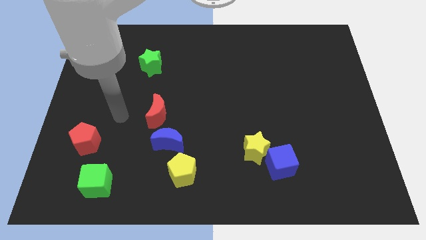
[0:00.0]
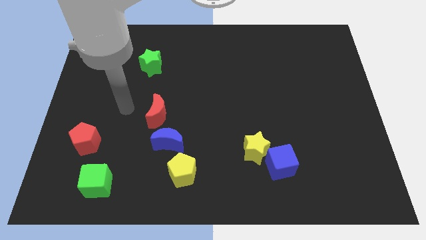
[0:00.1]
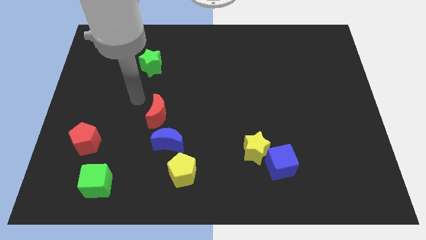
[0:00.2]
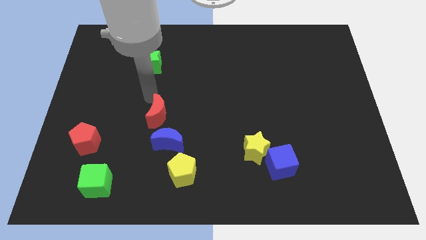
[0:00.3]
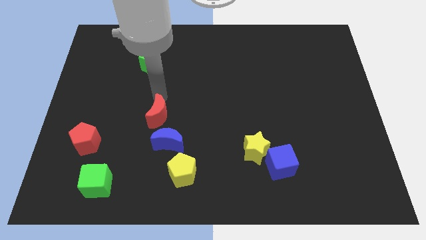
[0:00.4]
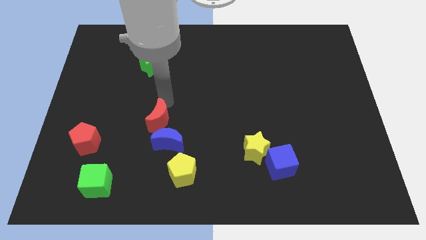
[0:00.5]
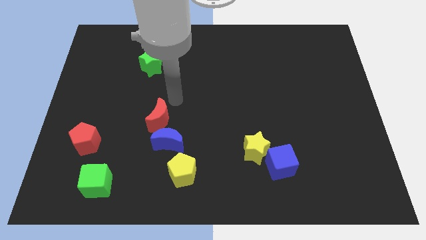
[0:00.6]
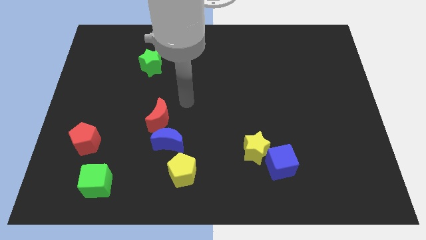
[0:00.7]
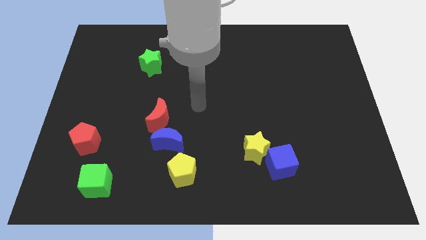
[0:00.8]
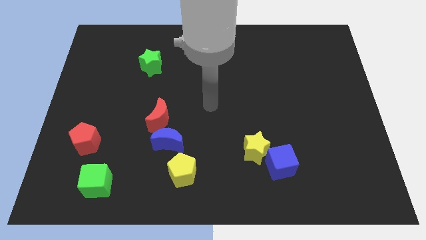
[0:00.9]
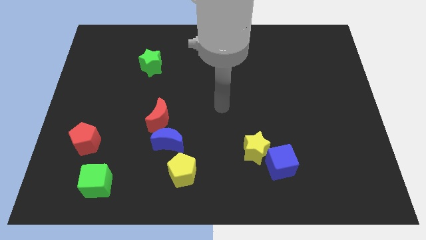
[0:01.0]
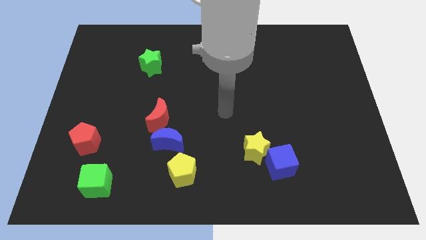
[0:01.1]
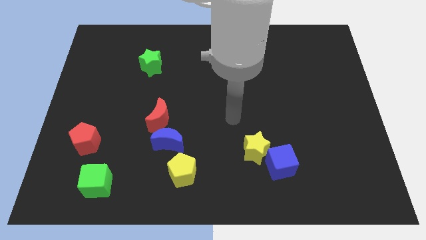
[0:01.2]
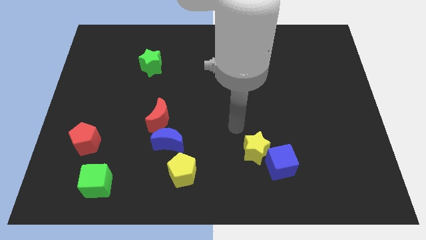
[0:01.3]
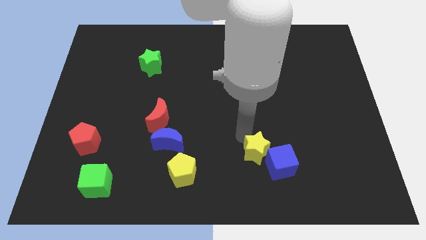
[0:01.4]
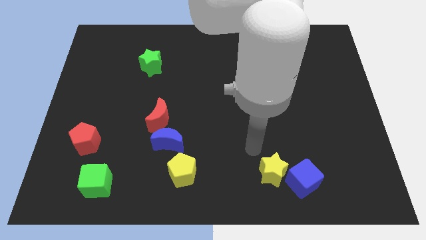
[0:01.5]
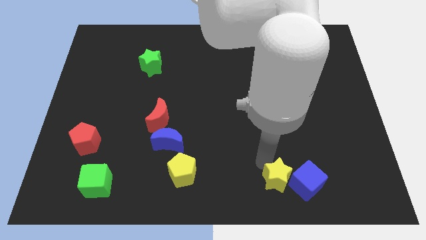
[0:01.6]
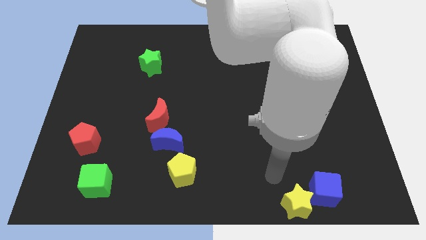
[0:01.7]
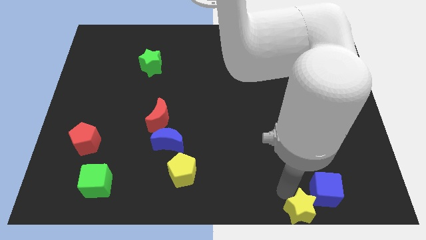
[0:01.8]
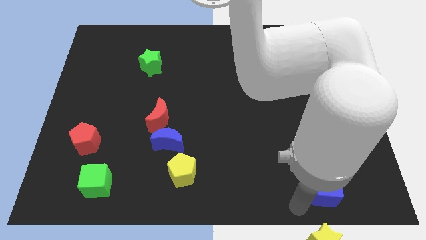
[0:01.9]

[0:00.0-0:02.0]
pull the blue cube apart from the yellow star

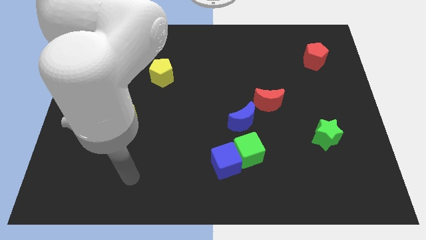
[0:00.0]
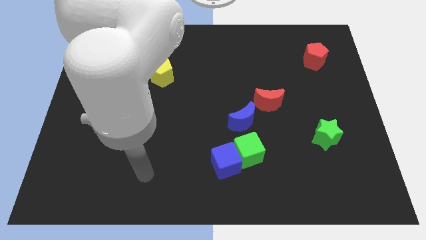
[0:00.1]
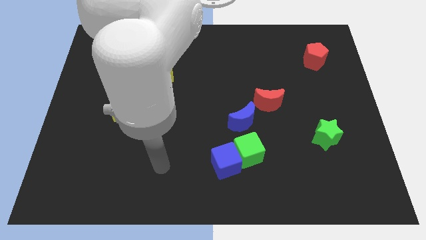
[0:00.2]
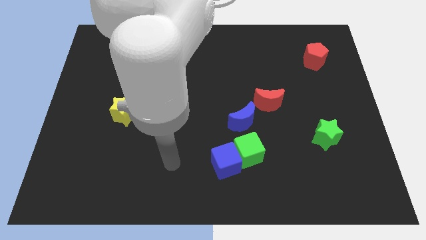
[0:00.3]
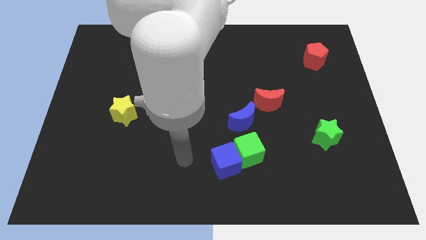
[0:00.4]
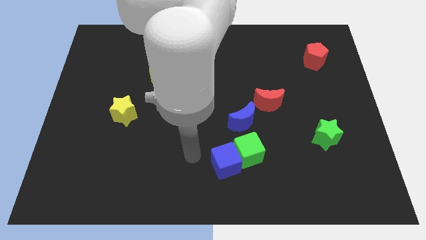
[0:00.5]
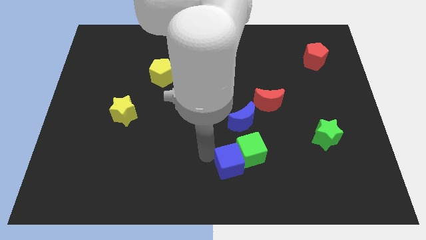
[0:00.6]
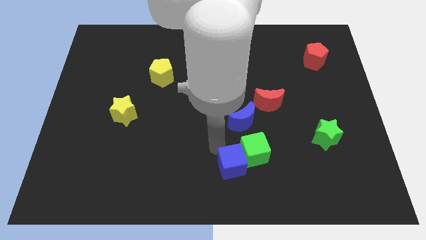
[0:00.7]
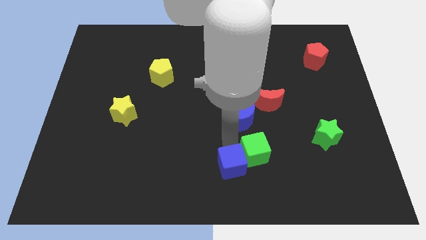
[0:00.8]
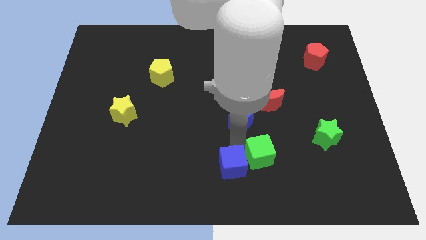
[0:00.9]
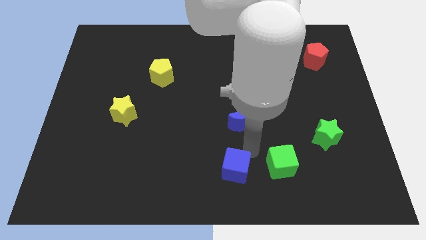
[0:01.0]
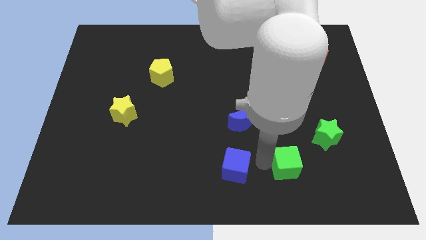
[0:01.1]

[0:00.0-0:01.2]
separate the blue cube from the green cube

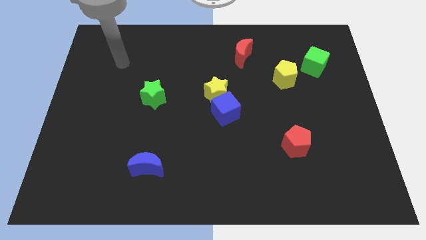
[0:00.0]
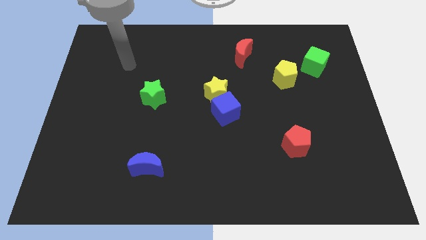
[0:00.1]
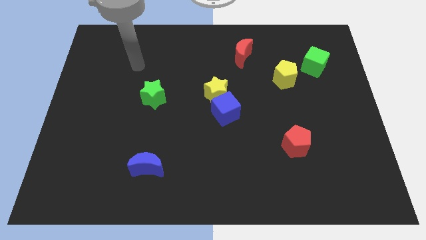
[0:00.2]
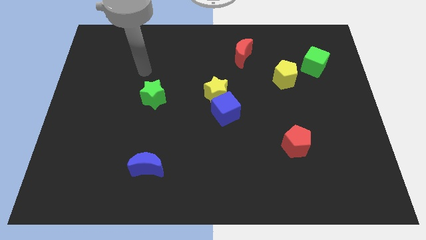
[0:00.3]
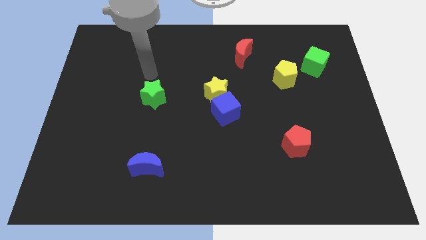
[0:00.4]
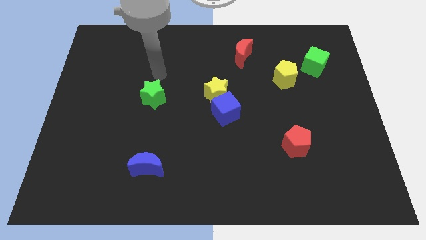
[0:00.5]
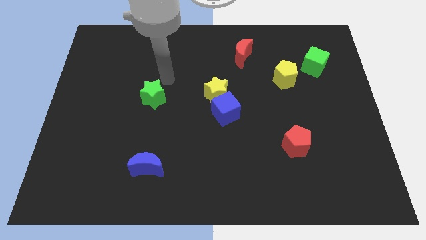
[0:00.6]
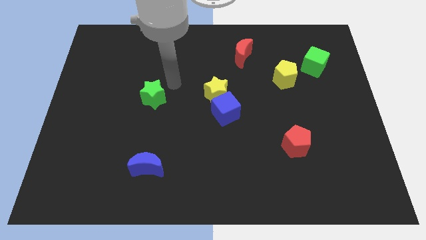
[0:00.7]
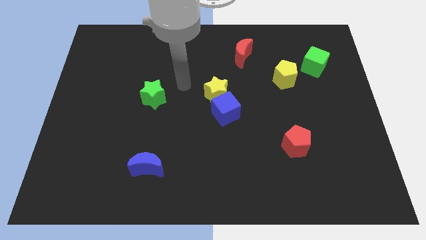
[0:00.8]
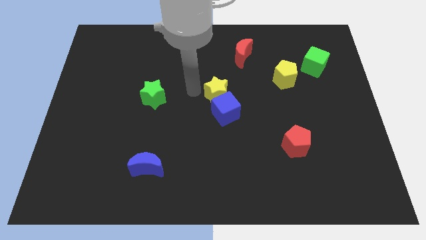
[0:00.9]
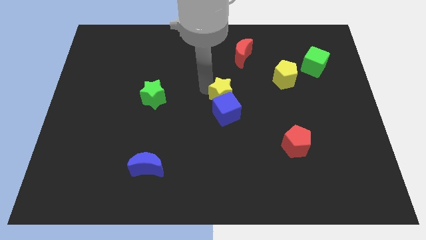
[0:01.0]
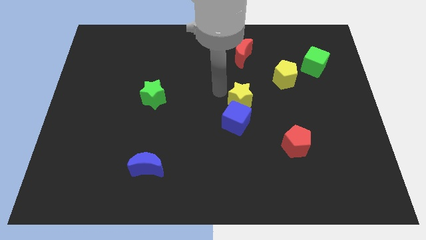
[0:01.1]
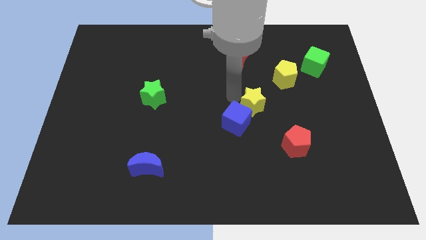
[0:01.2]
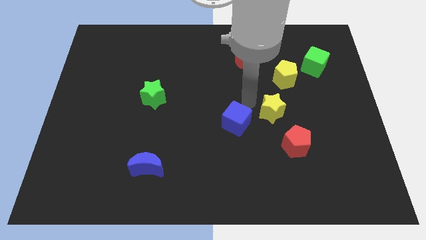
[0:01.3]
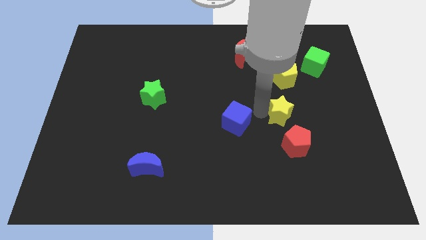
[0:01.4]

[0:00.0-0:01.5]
separate the blue cube from the yellow star

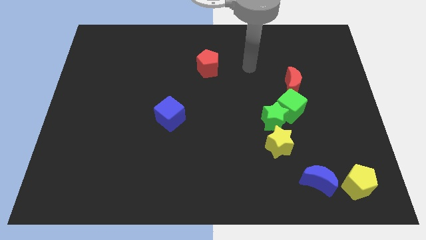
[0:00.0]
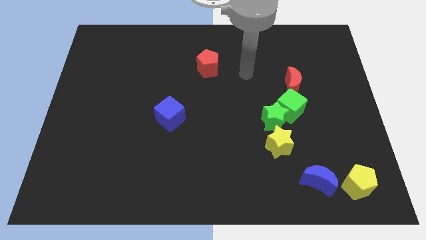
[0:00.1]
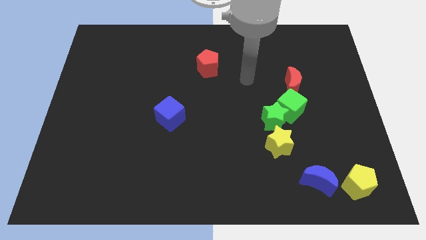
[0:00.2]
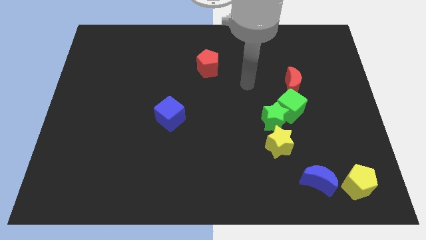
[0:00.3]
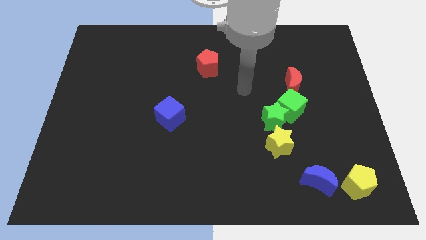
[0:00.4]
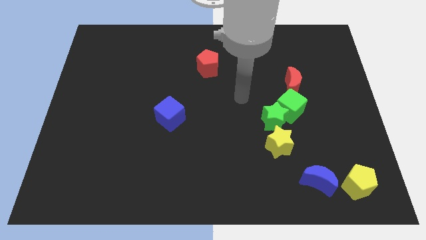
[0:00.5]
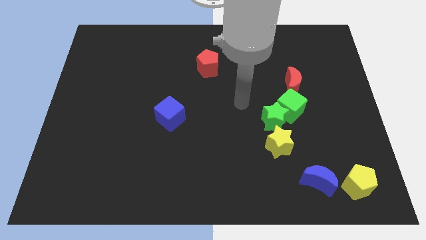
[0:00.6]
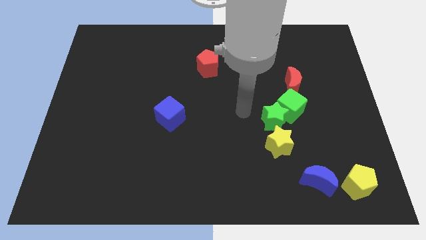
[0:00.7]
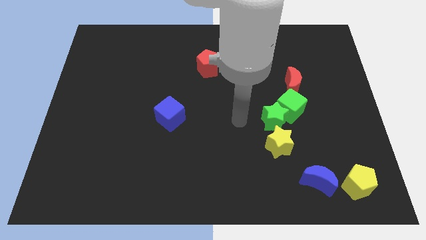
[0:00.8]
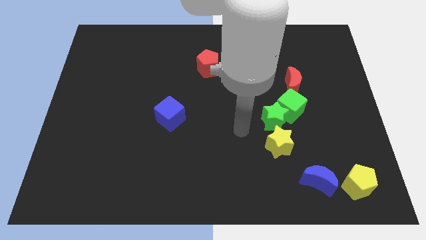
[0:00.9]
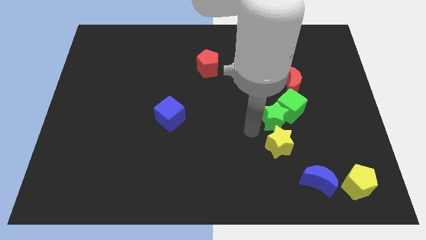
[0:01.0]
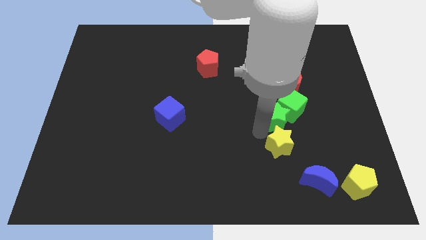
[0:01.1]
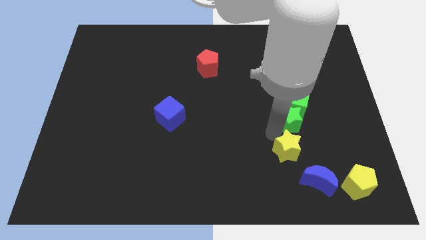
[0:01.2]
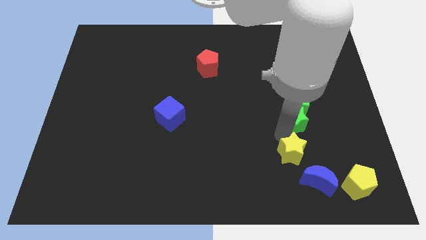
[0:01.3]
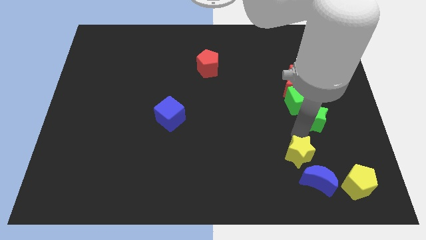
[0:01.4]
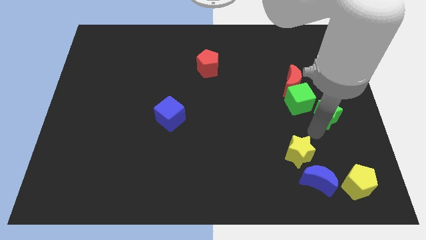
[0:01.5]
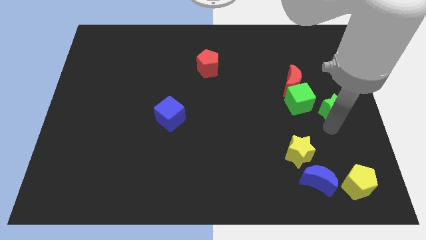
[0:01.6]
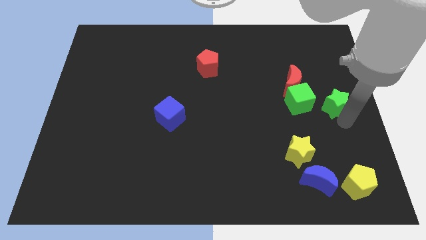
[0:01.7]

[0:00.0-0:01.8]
move the green star away from the green cube and yellow star

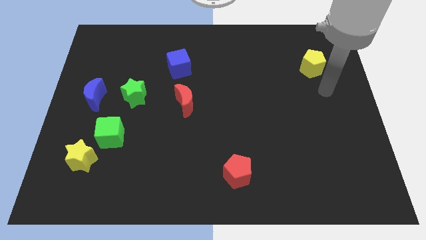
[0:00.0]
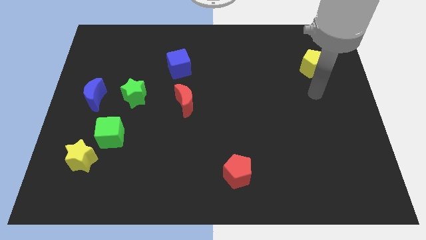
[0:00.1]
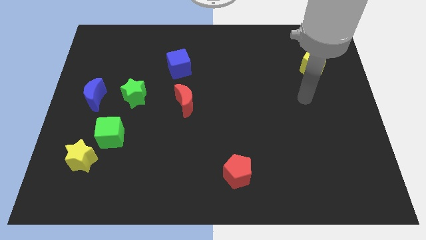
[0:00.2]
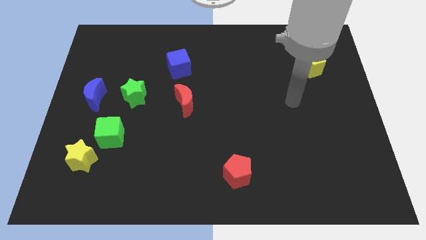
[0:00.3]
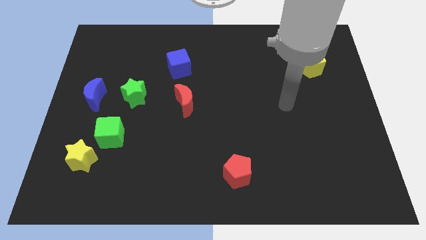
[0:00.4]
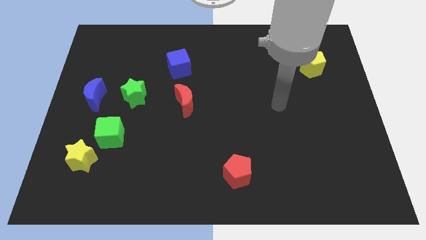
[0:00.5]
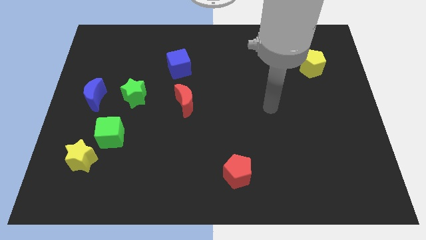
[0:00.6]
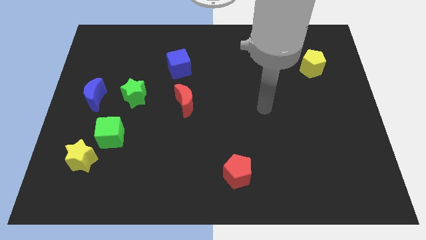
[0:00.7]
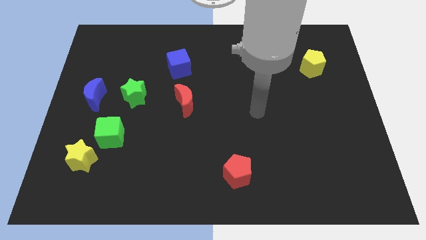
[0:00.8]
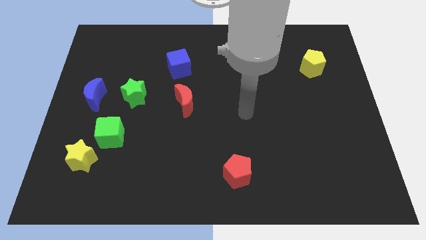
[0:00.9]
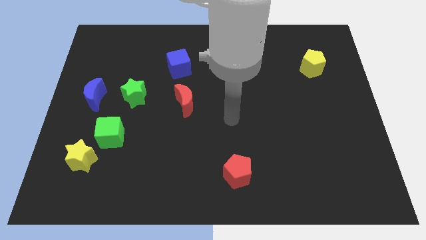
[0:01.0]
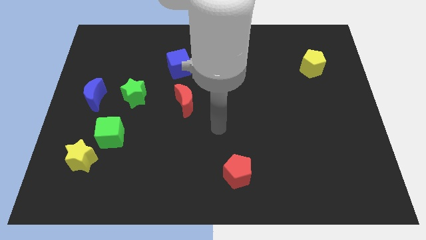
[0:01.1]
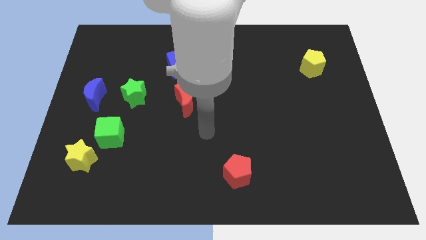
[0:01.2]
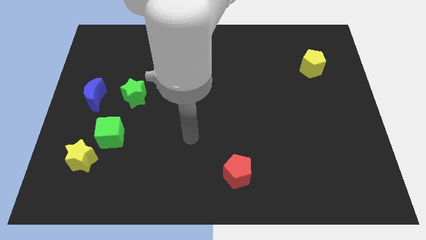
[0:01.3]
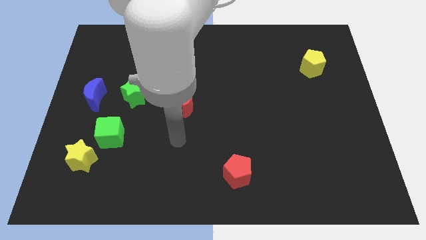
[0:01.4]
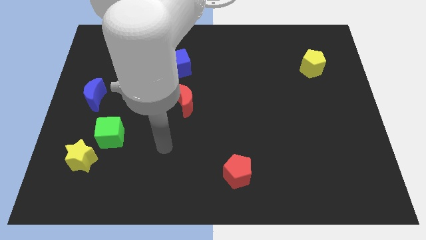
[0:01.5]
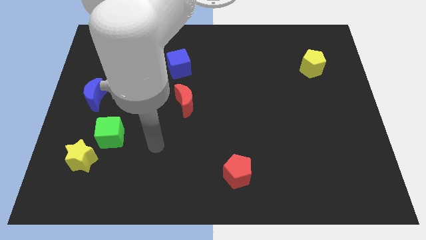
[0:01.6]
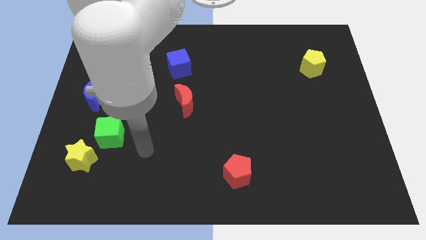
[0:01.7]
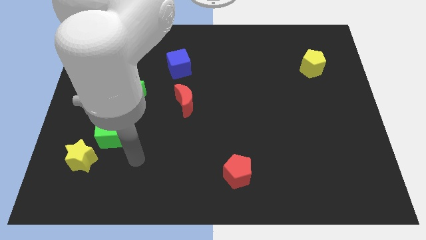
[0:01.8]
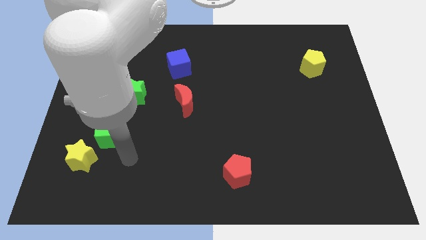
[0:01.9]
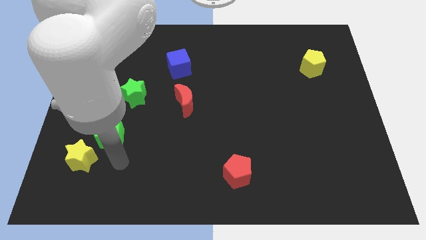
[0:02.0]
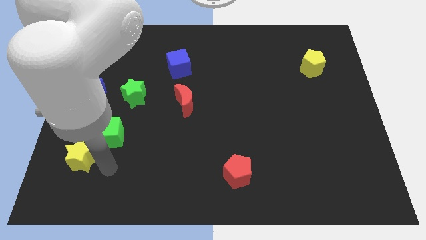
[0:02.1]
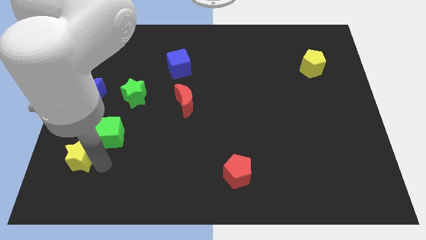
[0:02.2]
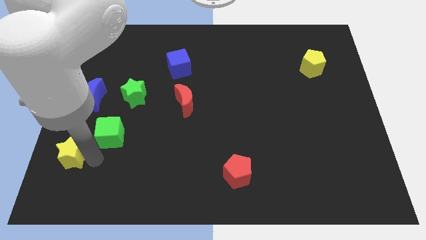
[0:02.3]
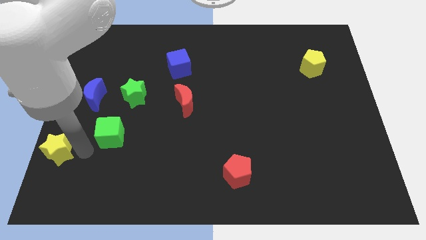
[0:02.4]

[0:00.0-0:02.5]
move the green cube away from the yellow star

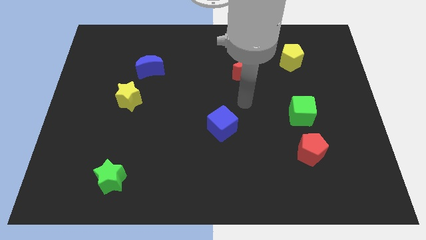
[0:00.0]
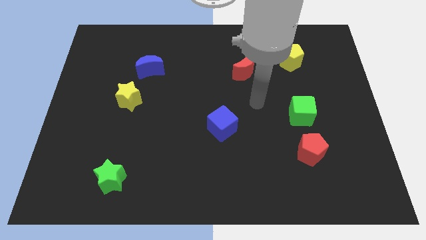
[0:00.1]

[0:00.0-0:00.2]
move the red pentagon away from the green cube
